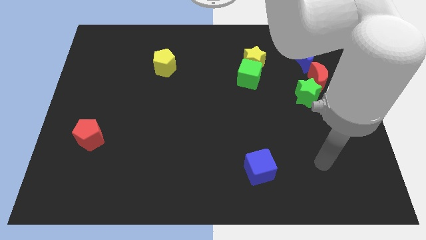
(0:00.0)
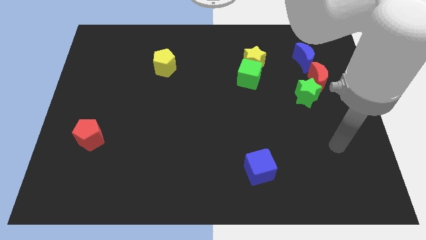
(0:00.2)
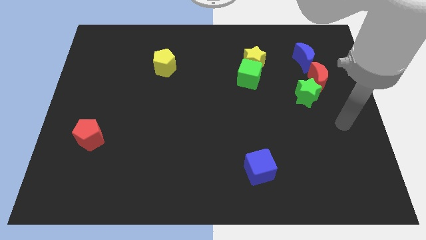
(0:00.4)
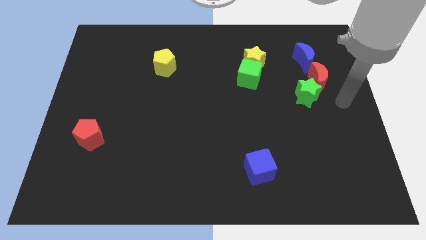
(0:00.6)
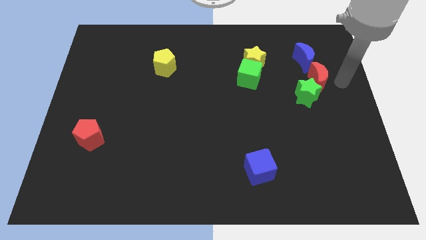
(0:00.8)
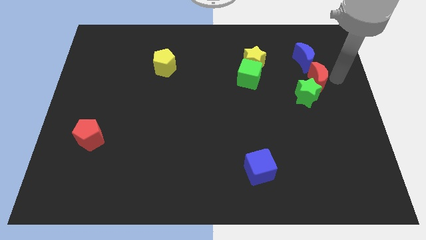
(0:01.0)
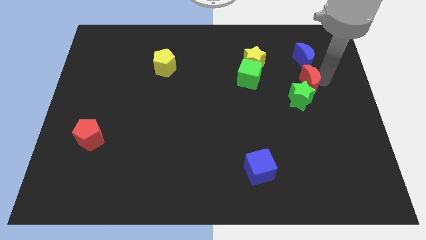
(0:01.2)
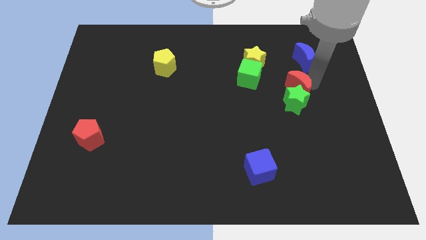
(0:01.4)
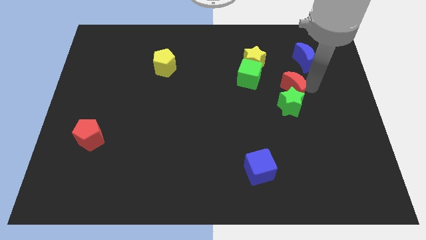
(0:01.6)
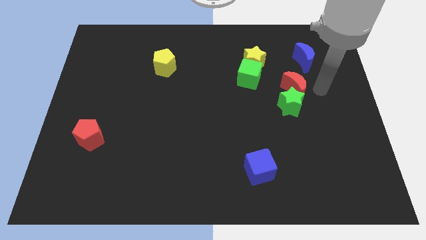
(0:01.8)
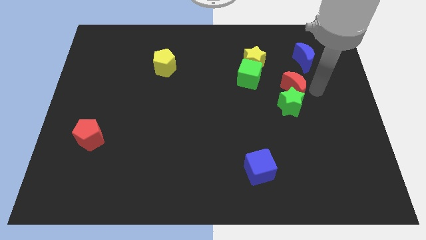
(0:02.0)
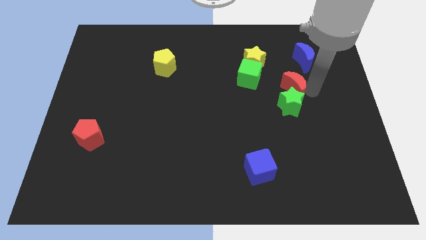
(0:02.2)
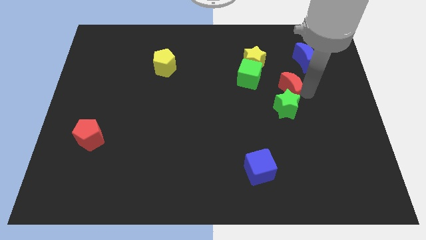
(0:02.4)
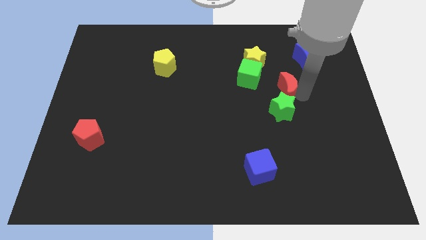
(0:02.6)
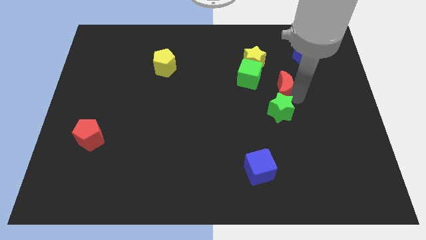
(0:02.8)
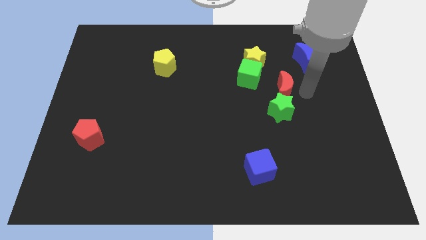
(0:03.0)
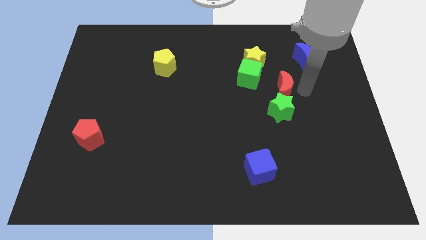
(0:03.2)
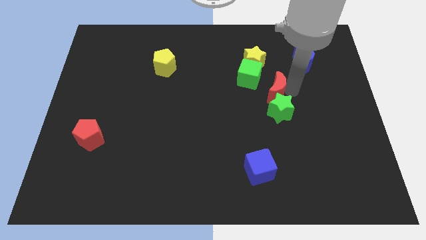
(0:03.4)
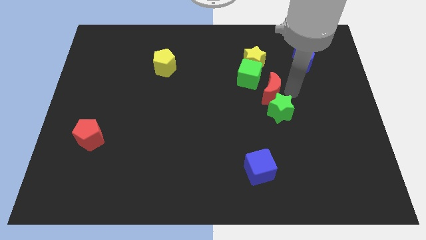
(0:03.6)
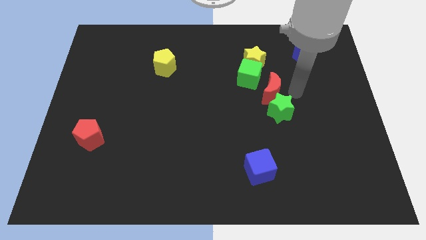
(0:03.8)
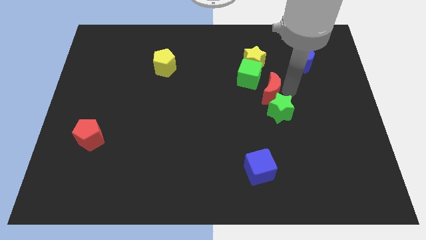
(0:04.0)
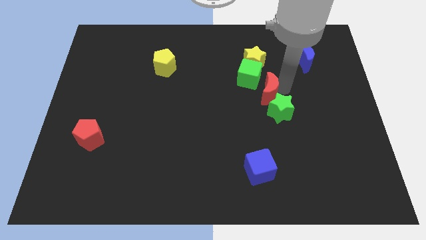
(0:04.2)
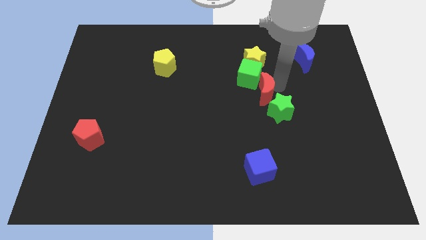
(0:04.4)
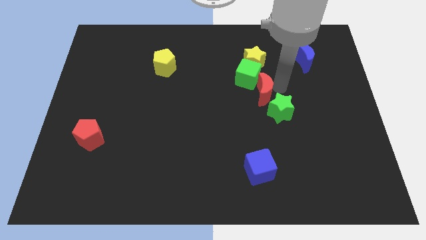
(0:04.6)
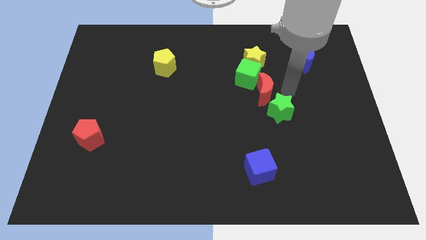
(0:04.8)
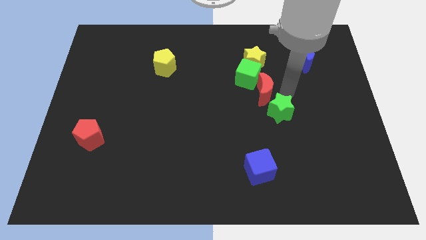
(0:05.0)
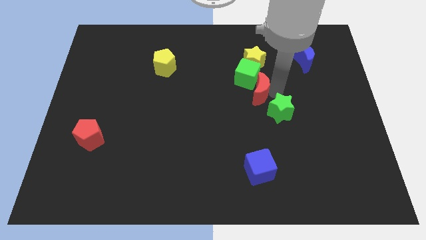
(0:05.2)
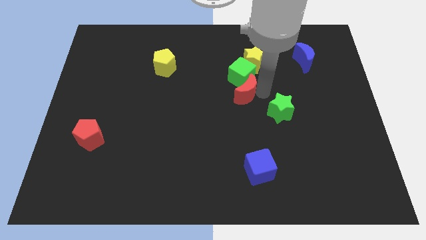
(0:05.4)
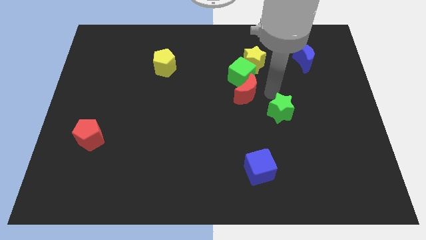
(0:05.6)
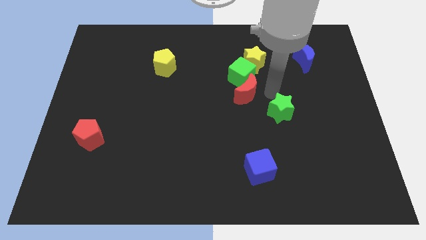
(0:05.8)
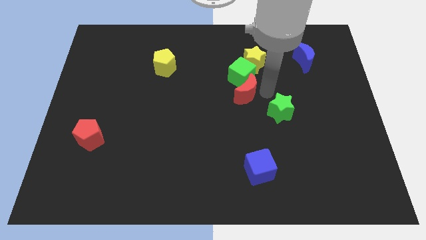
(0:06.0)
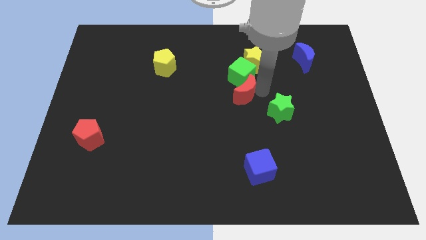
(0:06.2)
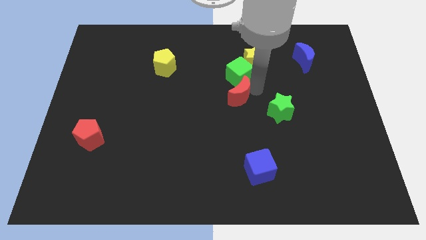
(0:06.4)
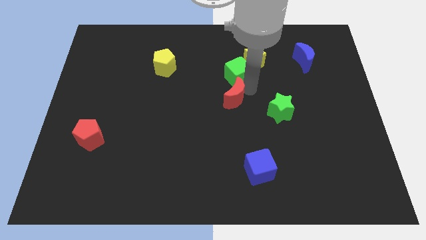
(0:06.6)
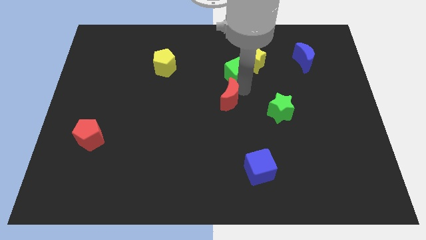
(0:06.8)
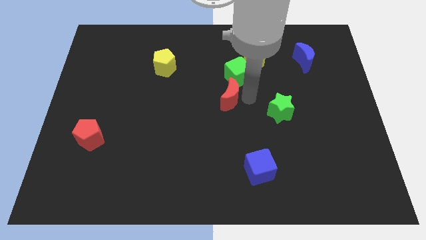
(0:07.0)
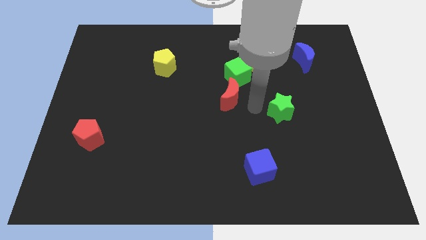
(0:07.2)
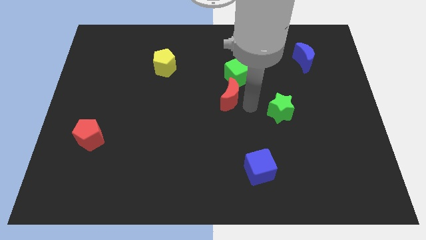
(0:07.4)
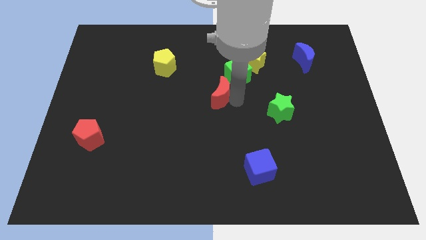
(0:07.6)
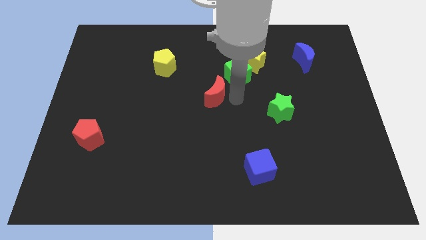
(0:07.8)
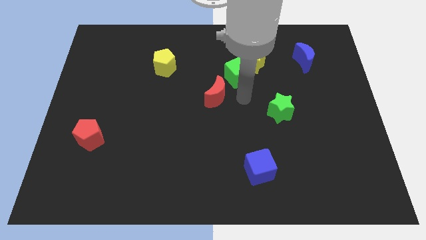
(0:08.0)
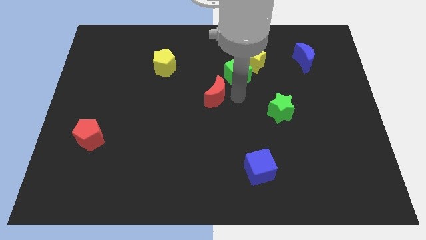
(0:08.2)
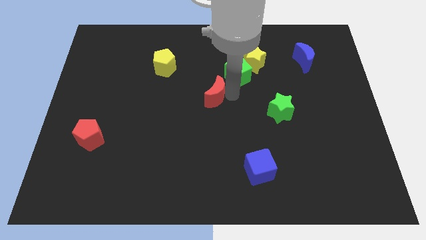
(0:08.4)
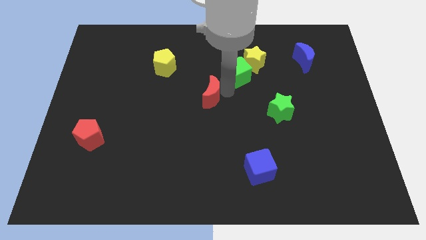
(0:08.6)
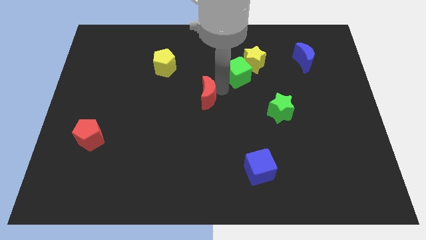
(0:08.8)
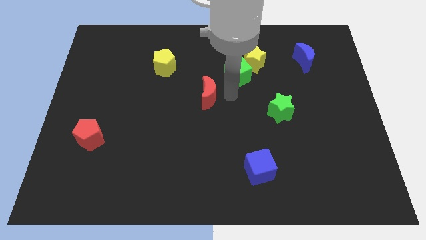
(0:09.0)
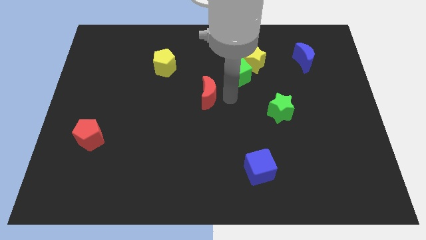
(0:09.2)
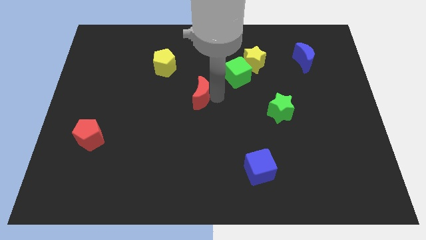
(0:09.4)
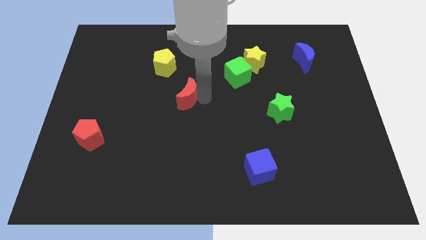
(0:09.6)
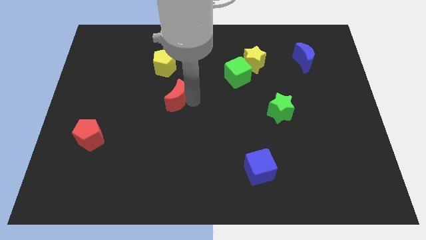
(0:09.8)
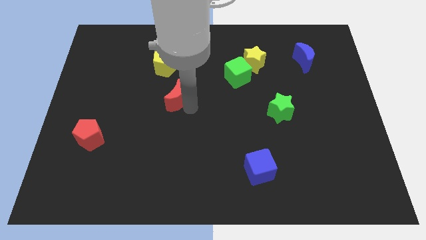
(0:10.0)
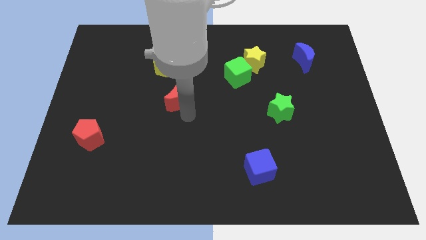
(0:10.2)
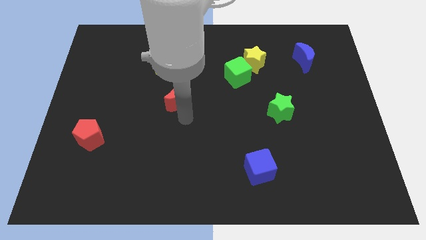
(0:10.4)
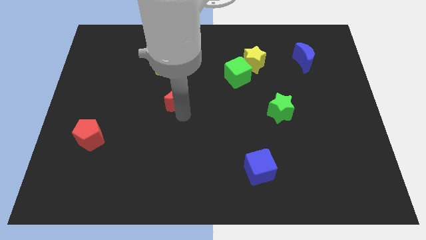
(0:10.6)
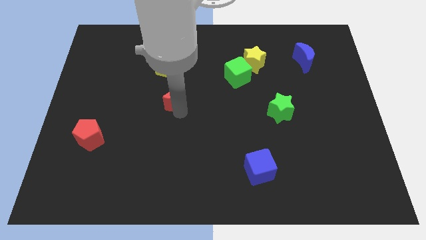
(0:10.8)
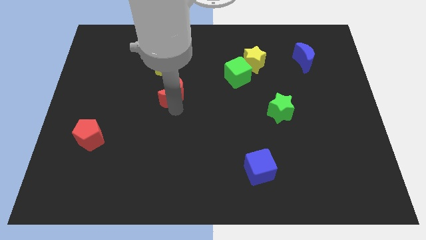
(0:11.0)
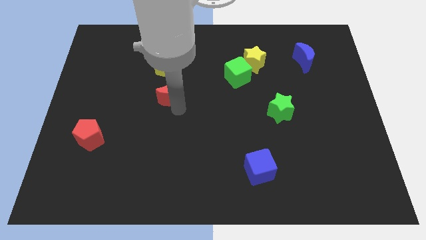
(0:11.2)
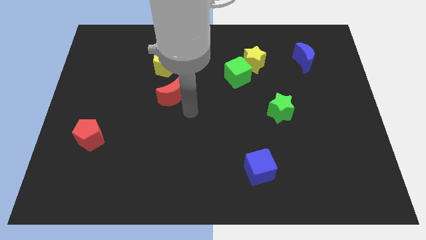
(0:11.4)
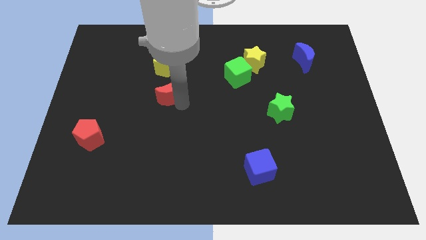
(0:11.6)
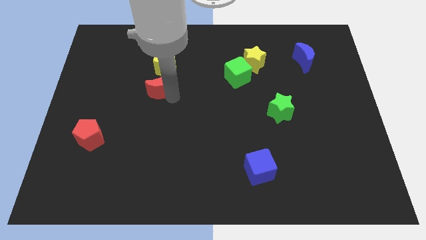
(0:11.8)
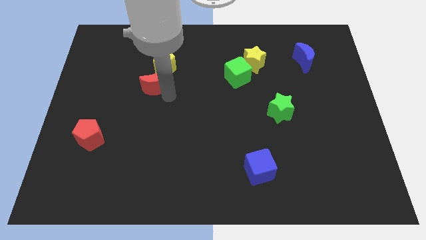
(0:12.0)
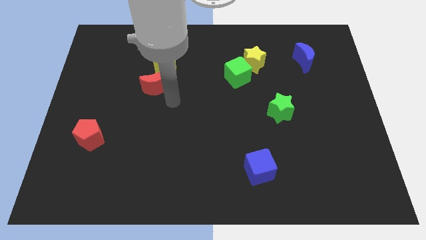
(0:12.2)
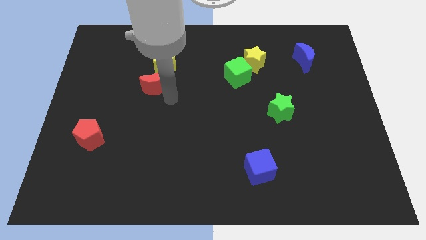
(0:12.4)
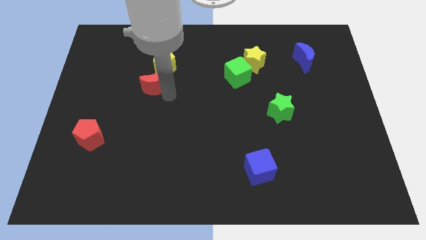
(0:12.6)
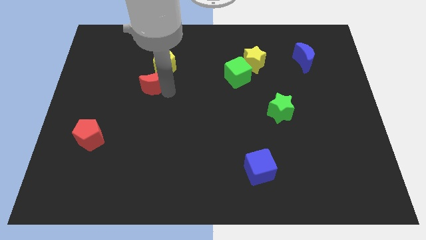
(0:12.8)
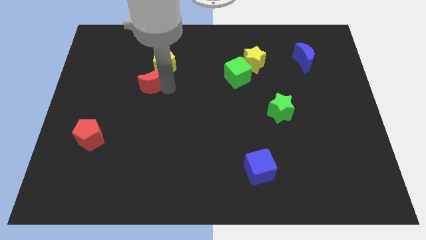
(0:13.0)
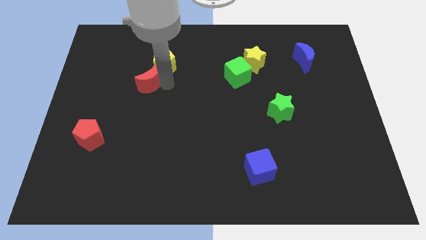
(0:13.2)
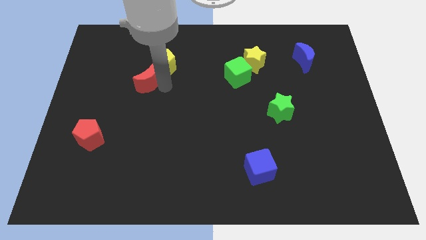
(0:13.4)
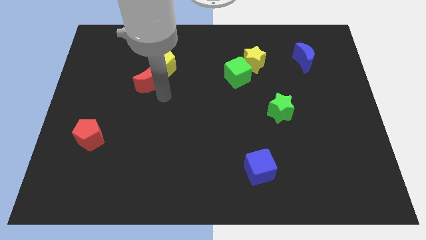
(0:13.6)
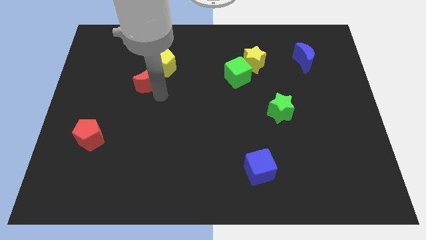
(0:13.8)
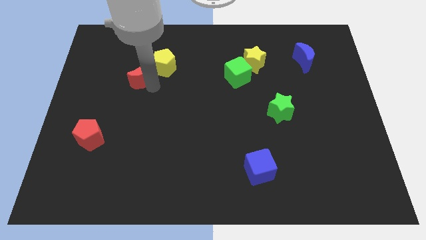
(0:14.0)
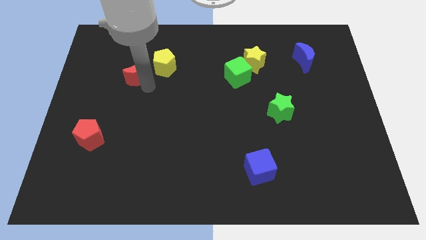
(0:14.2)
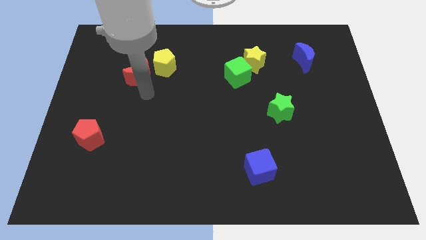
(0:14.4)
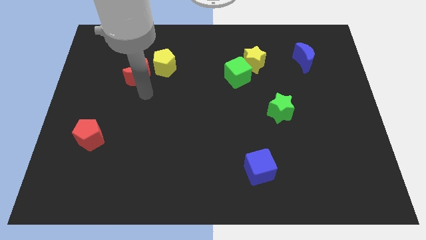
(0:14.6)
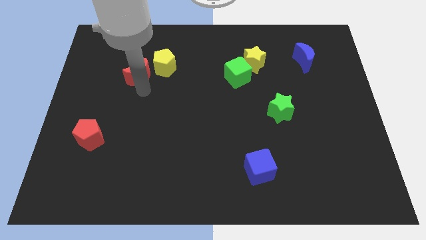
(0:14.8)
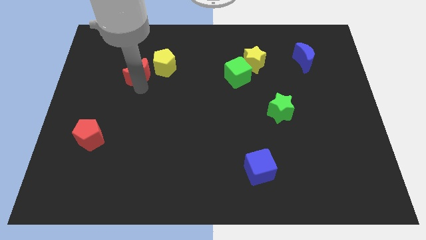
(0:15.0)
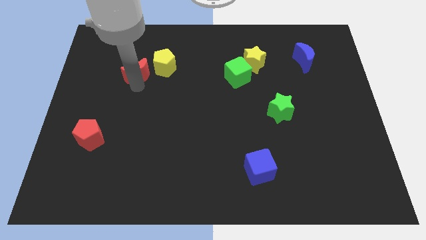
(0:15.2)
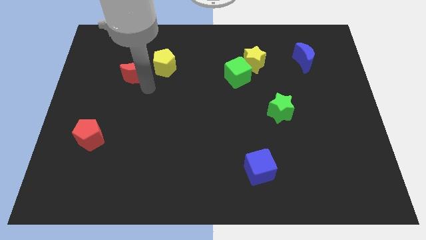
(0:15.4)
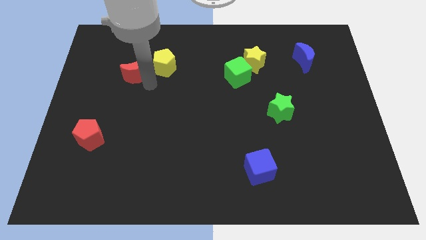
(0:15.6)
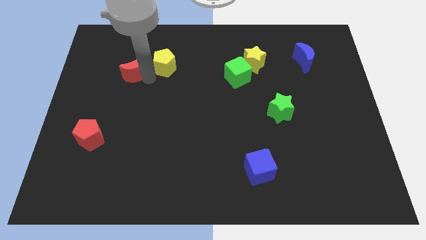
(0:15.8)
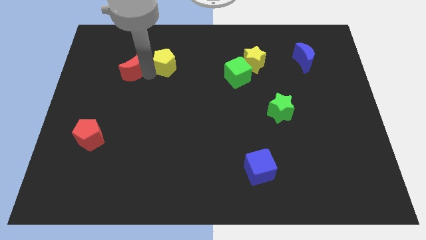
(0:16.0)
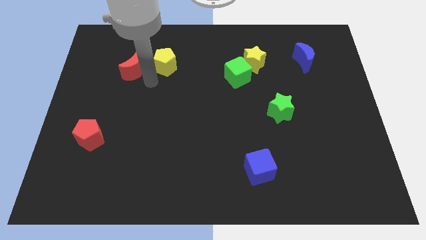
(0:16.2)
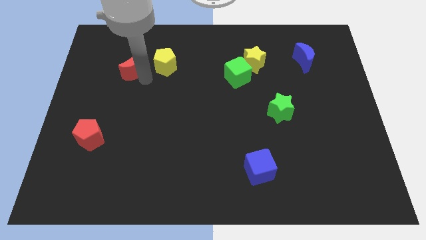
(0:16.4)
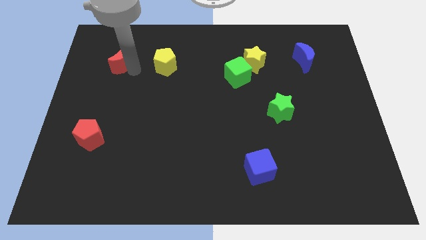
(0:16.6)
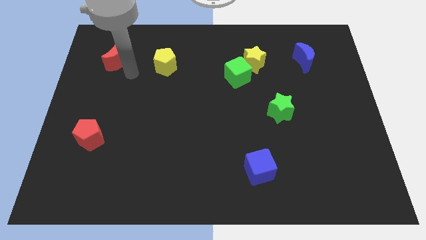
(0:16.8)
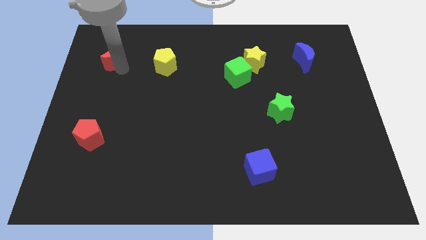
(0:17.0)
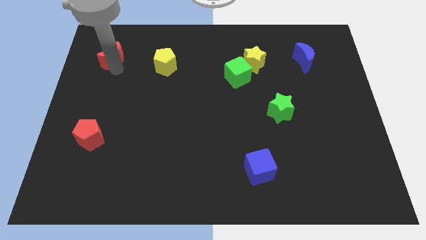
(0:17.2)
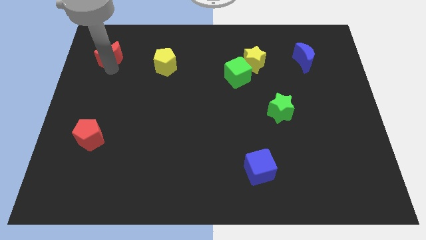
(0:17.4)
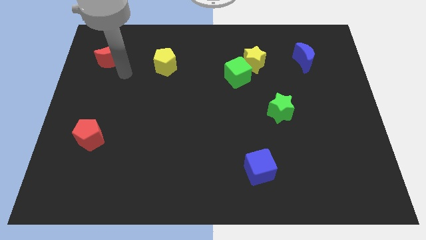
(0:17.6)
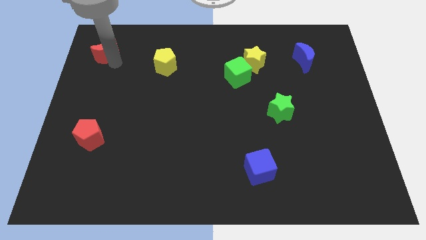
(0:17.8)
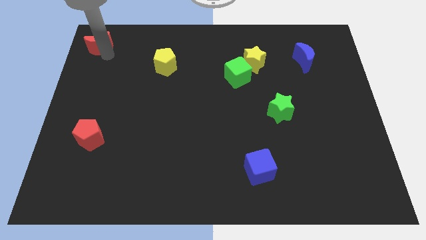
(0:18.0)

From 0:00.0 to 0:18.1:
slide the red moon to the top left of the board
